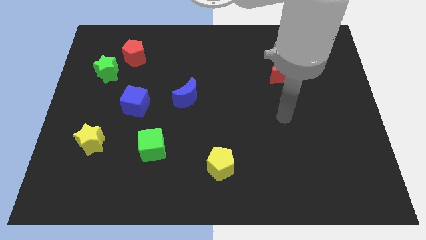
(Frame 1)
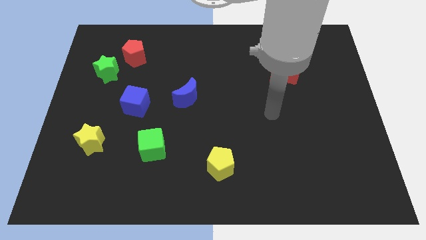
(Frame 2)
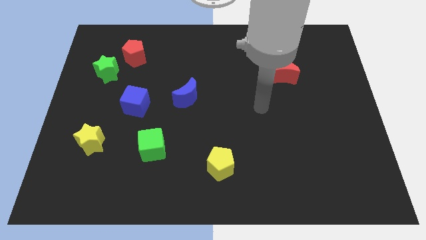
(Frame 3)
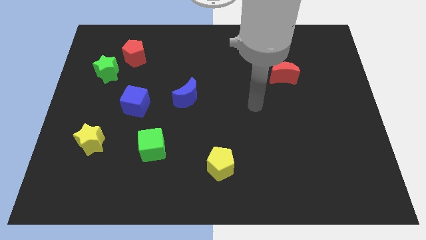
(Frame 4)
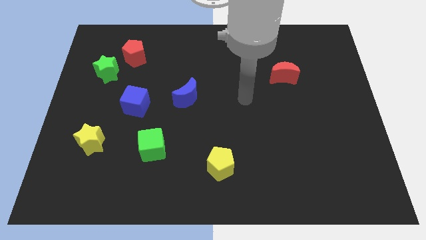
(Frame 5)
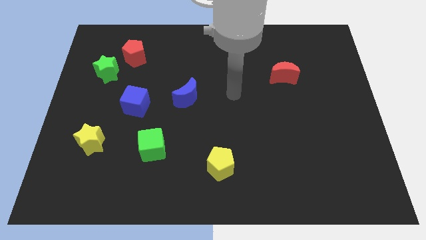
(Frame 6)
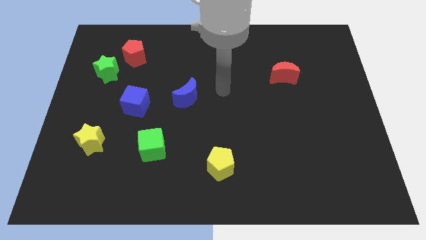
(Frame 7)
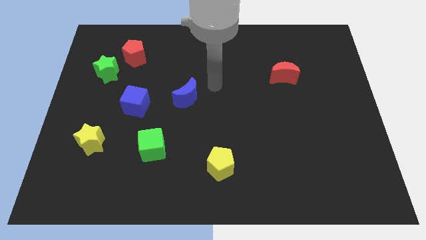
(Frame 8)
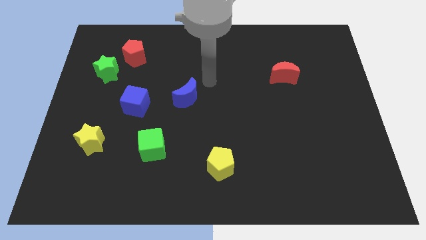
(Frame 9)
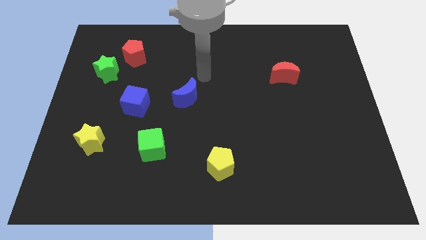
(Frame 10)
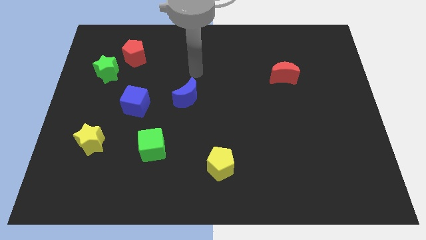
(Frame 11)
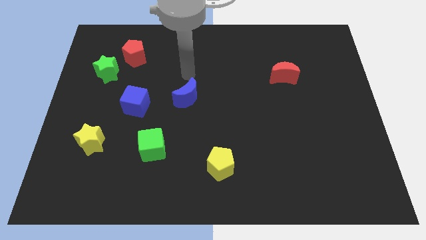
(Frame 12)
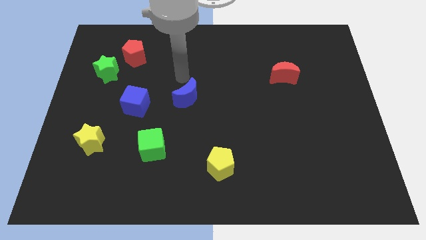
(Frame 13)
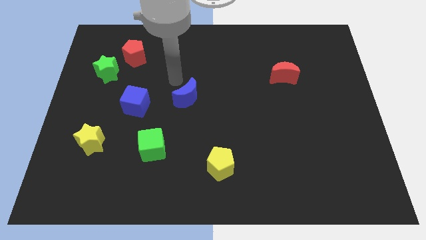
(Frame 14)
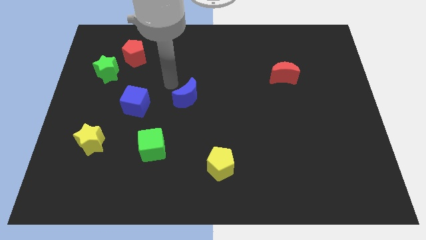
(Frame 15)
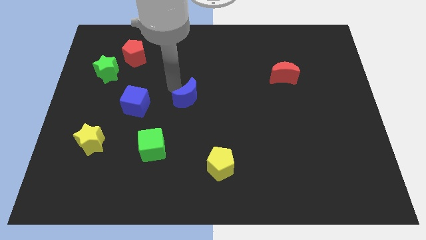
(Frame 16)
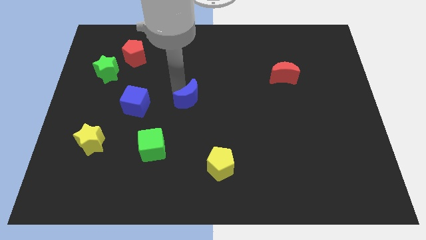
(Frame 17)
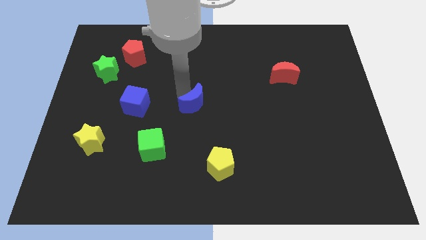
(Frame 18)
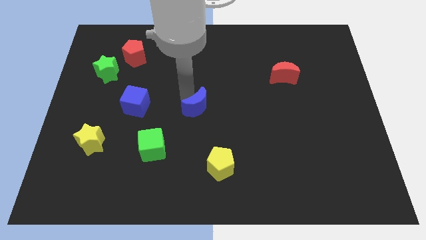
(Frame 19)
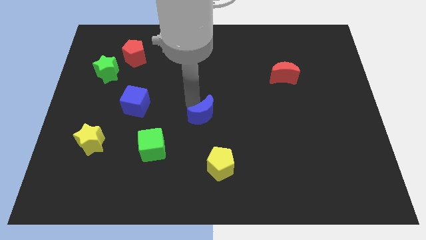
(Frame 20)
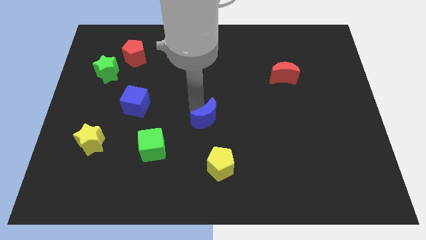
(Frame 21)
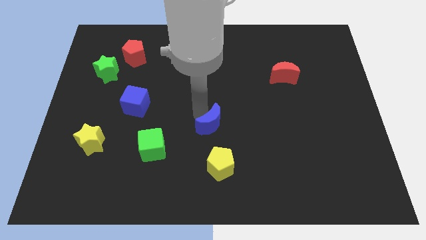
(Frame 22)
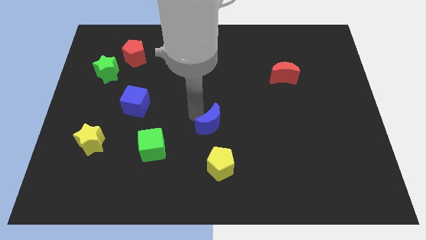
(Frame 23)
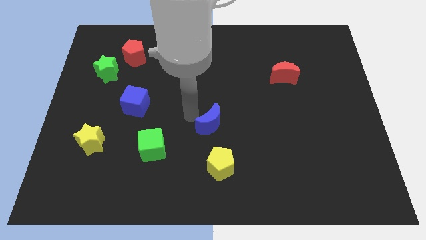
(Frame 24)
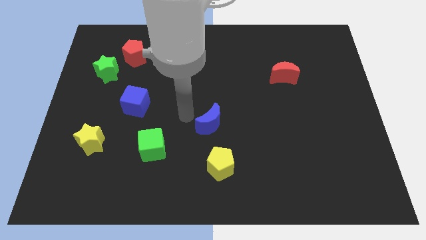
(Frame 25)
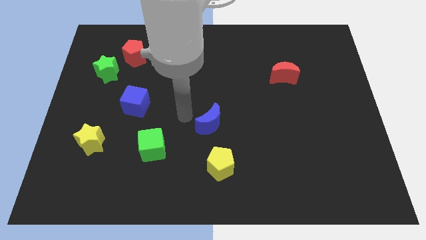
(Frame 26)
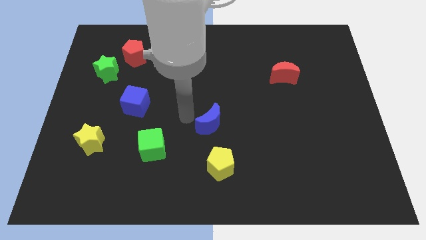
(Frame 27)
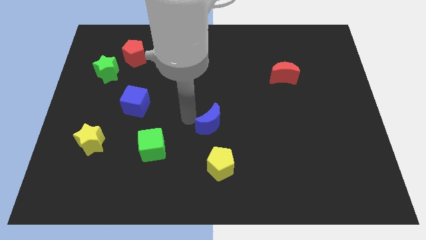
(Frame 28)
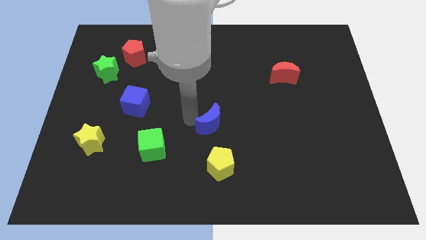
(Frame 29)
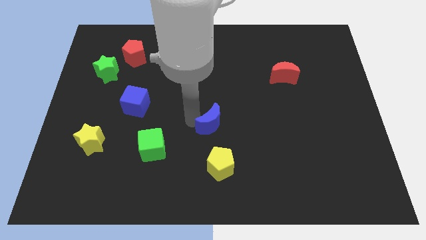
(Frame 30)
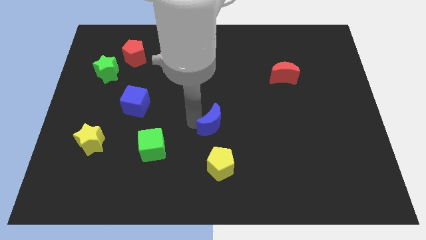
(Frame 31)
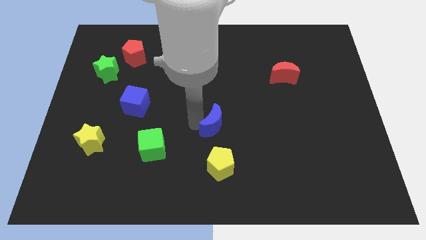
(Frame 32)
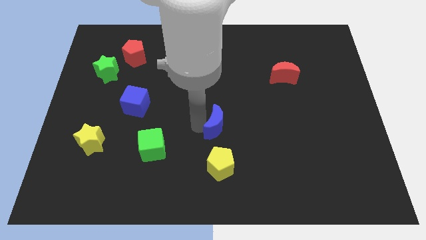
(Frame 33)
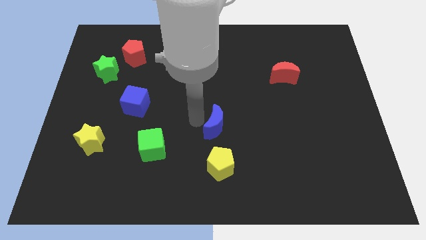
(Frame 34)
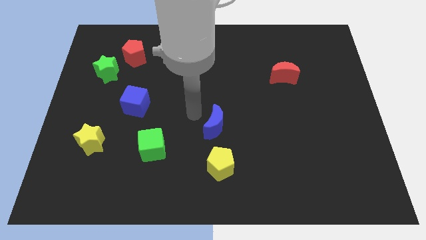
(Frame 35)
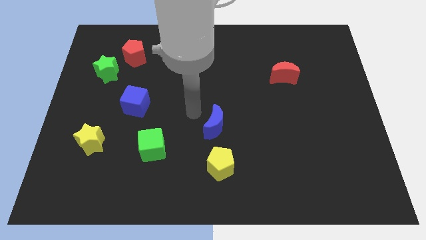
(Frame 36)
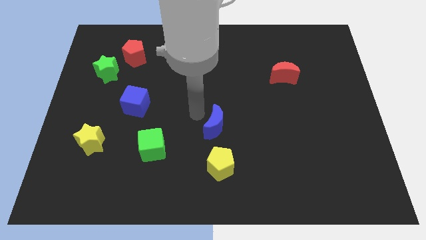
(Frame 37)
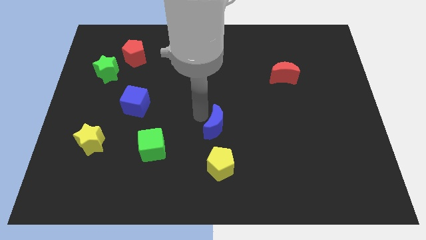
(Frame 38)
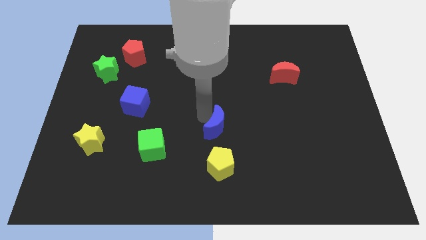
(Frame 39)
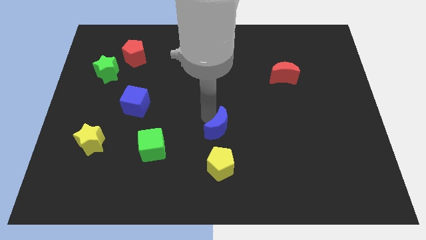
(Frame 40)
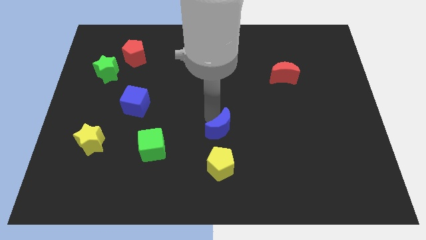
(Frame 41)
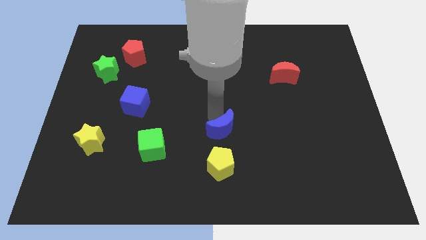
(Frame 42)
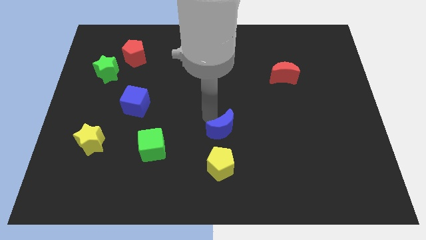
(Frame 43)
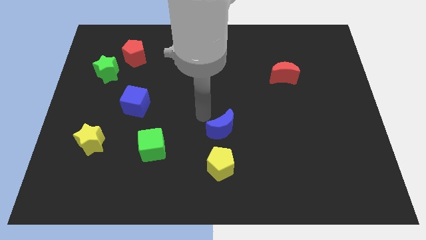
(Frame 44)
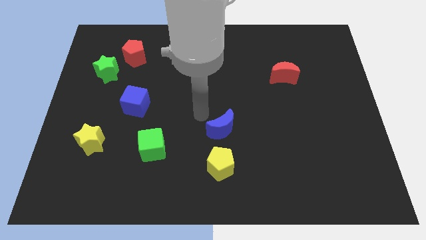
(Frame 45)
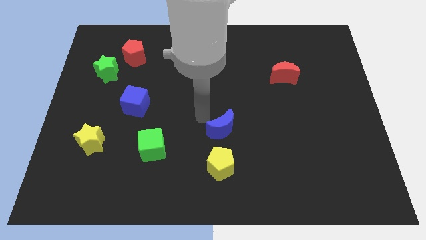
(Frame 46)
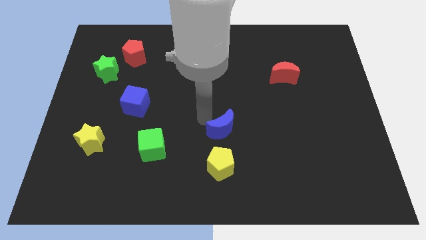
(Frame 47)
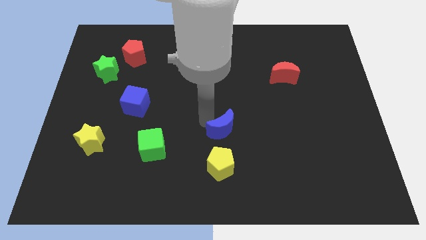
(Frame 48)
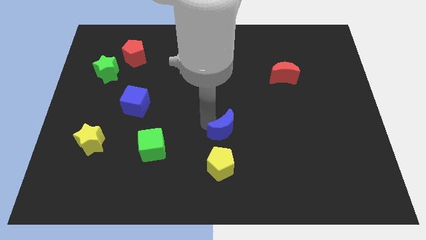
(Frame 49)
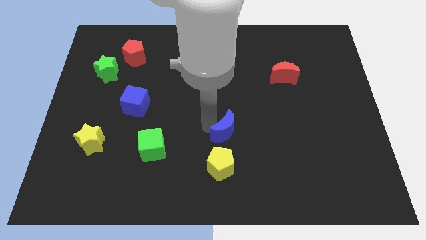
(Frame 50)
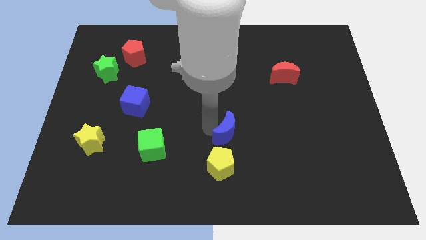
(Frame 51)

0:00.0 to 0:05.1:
slide the blue moon to the top right of the yellow pentagon

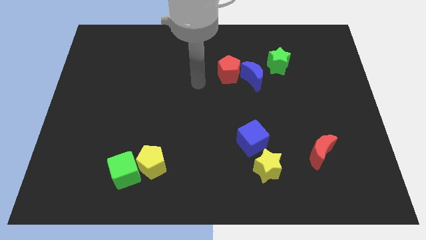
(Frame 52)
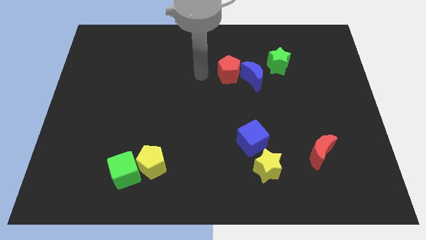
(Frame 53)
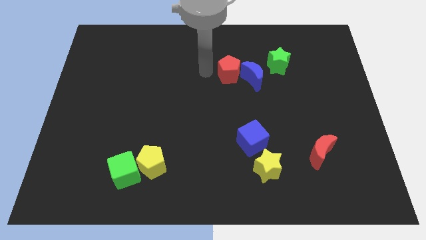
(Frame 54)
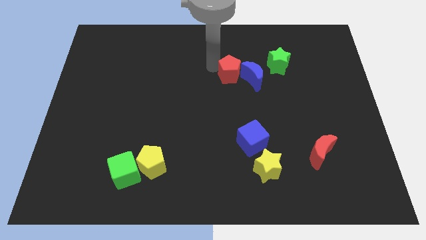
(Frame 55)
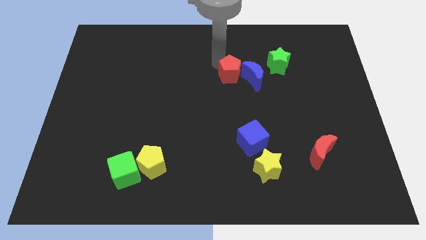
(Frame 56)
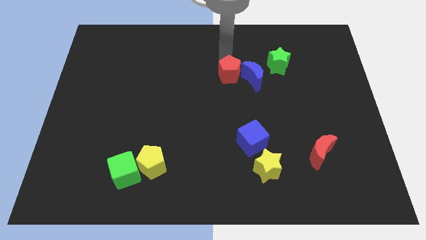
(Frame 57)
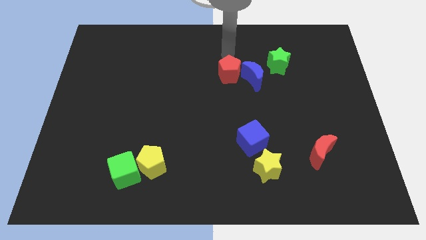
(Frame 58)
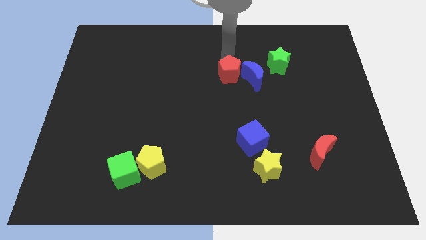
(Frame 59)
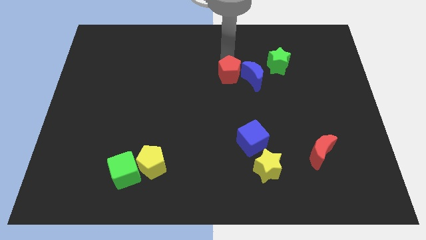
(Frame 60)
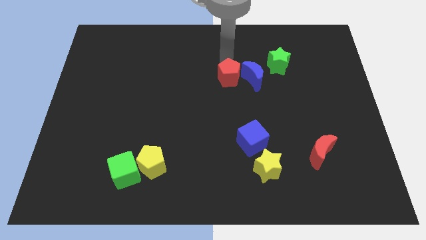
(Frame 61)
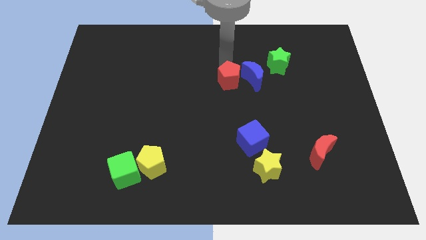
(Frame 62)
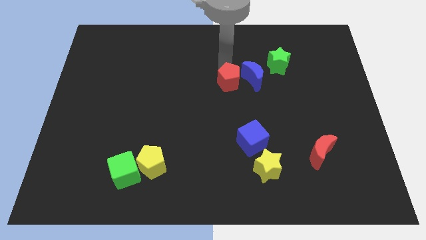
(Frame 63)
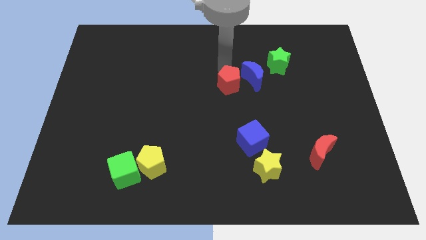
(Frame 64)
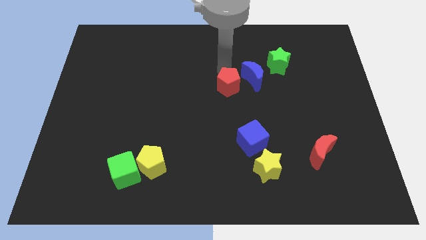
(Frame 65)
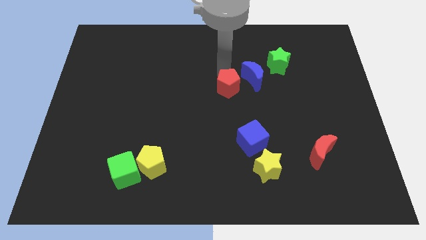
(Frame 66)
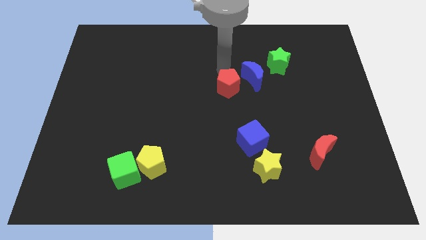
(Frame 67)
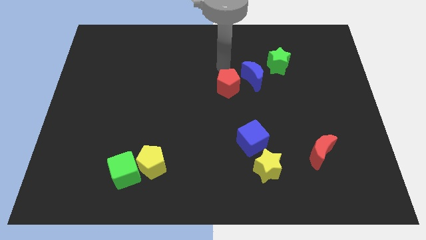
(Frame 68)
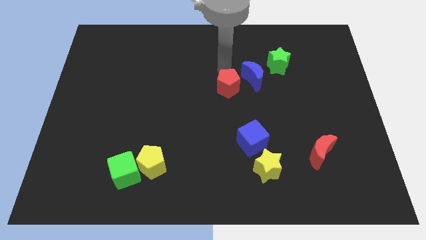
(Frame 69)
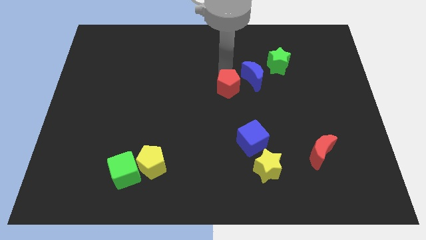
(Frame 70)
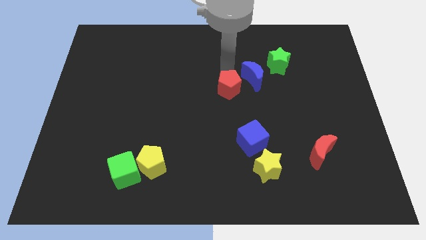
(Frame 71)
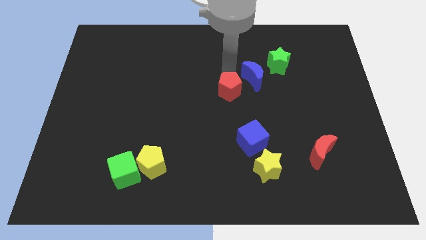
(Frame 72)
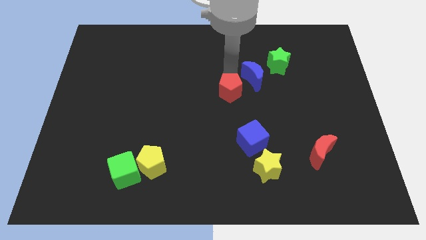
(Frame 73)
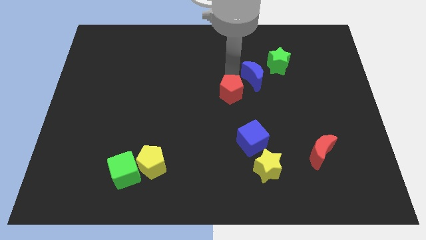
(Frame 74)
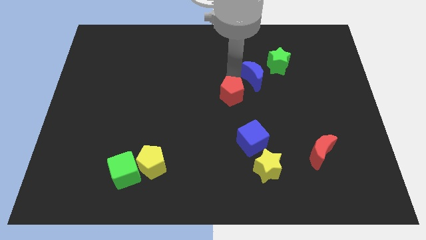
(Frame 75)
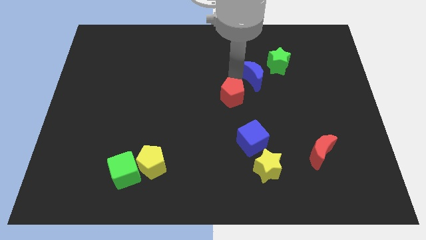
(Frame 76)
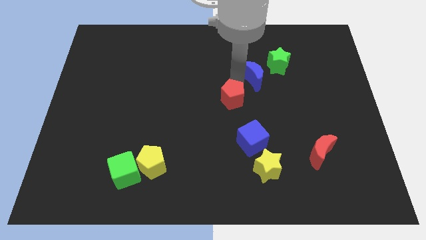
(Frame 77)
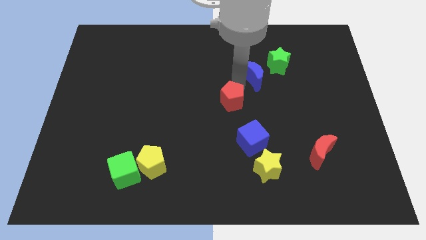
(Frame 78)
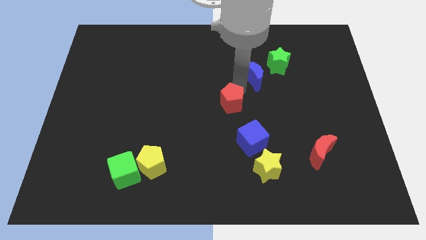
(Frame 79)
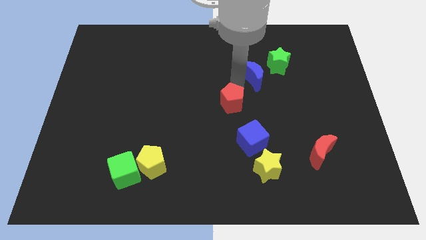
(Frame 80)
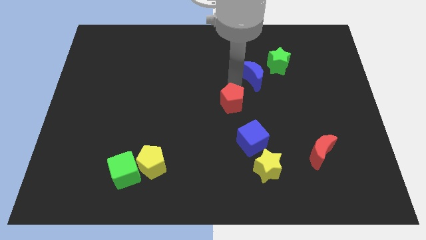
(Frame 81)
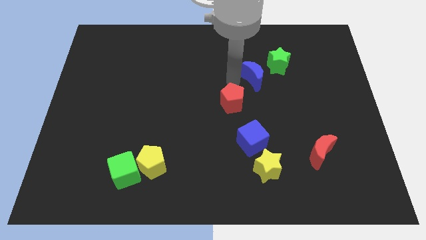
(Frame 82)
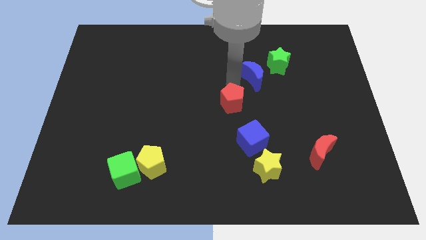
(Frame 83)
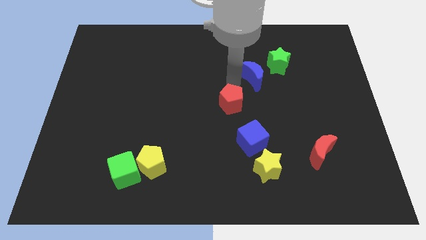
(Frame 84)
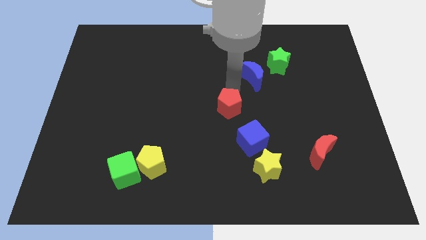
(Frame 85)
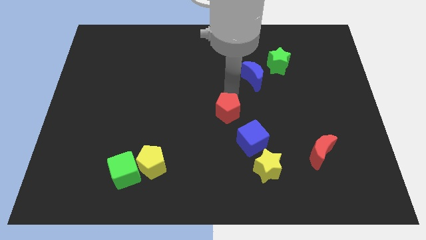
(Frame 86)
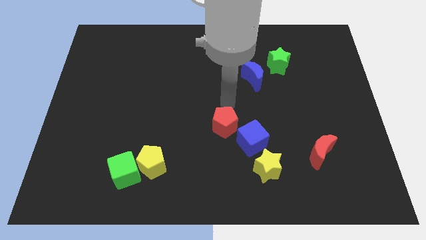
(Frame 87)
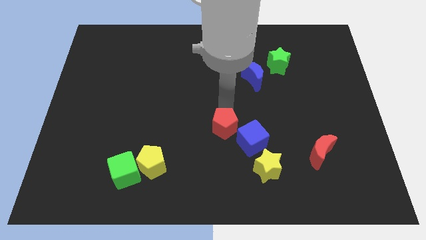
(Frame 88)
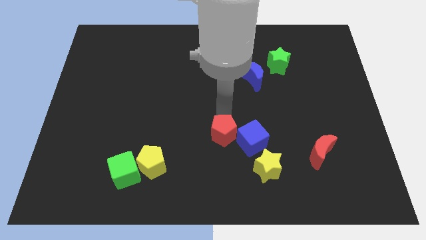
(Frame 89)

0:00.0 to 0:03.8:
slide the red pentagon to the top left of the yellow star
